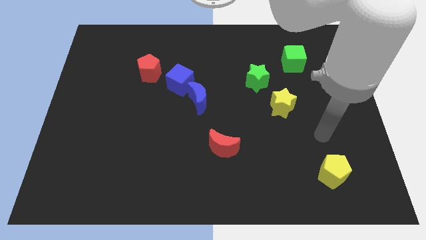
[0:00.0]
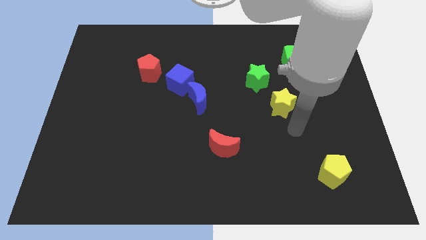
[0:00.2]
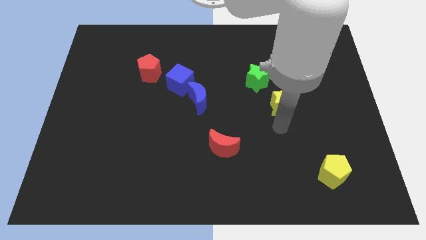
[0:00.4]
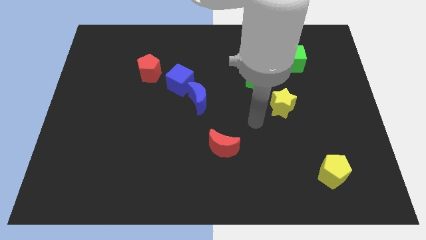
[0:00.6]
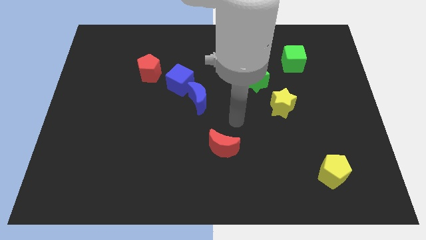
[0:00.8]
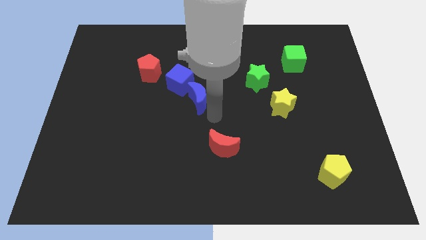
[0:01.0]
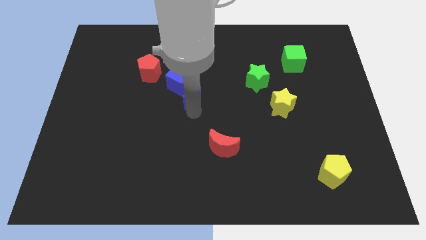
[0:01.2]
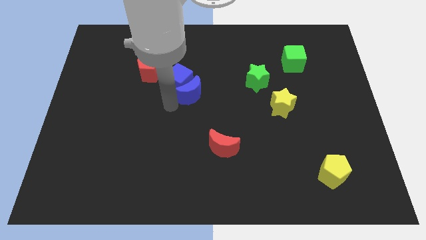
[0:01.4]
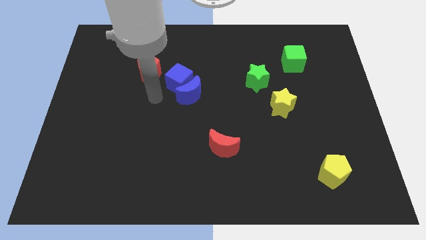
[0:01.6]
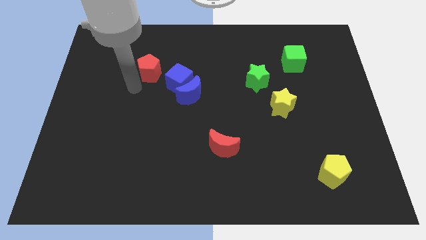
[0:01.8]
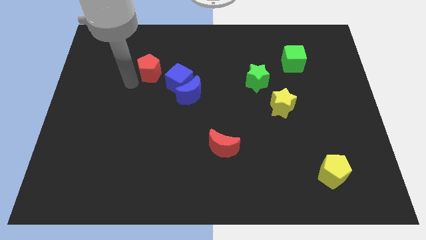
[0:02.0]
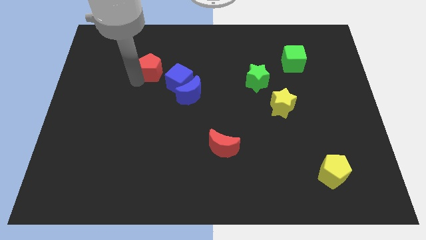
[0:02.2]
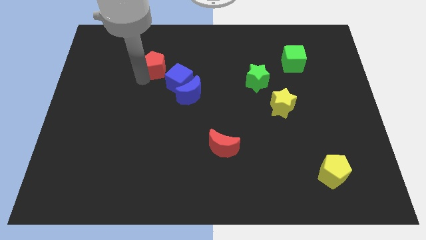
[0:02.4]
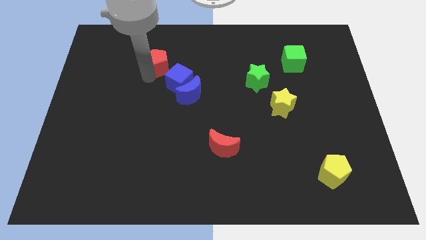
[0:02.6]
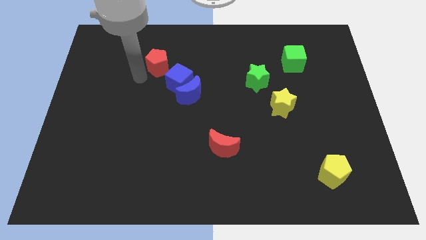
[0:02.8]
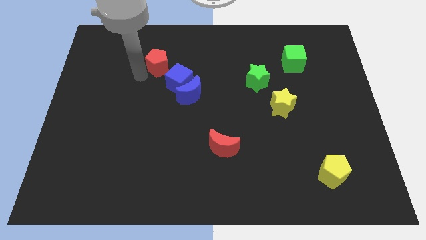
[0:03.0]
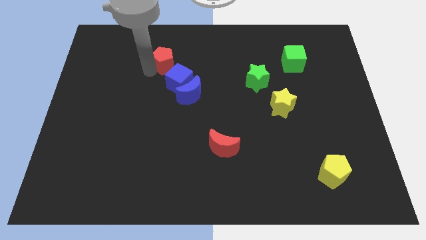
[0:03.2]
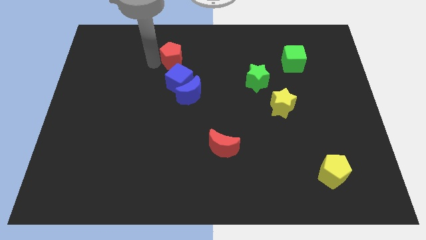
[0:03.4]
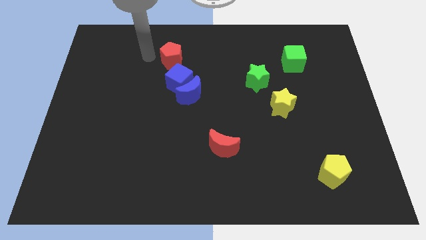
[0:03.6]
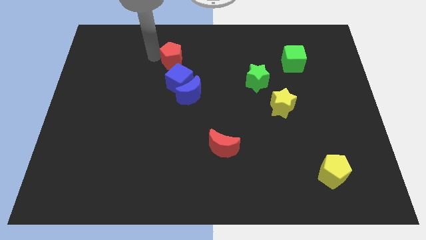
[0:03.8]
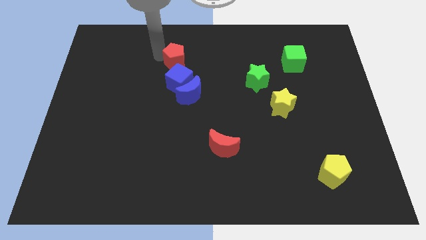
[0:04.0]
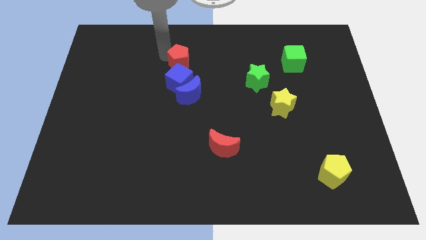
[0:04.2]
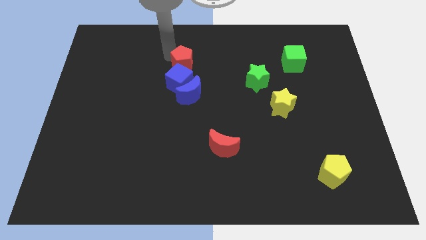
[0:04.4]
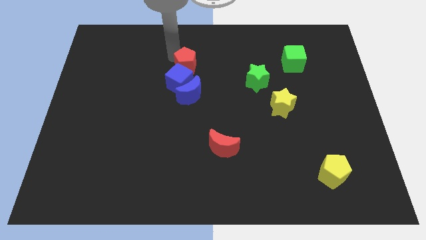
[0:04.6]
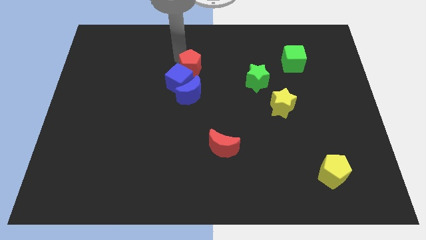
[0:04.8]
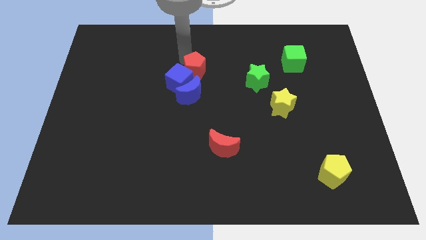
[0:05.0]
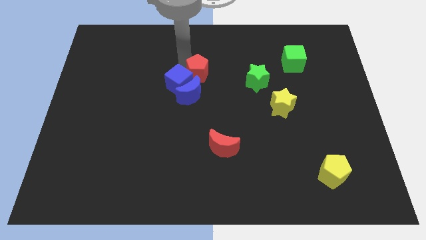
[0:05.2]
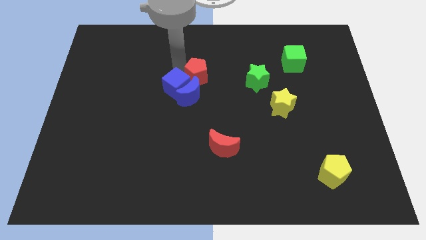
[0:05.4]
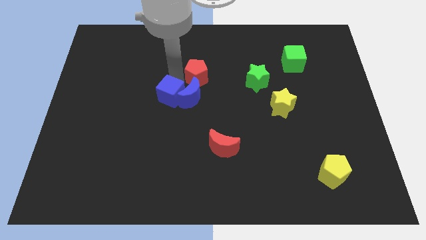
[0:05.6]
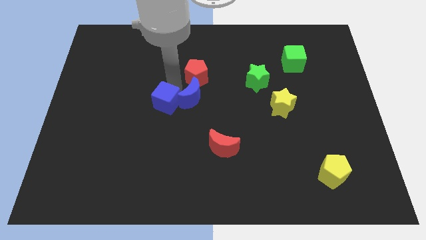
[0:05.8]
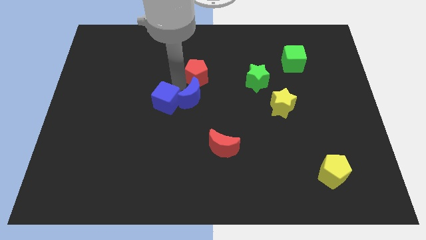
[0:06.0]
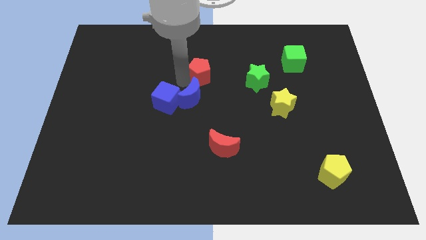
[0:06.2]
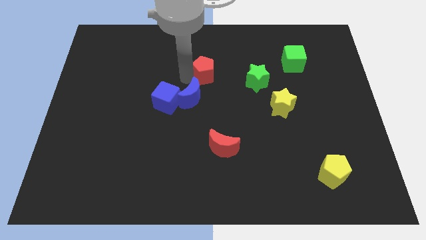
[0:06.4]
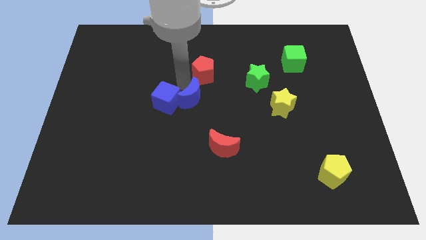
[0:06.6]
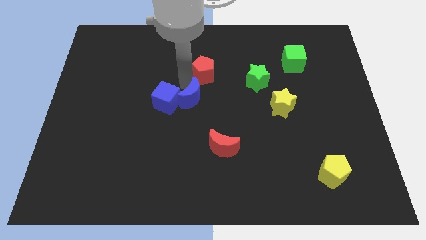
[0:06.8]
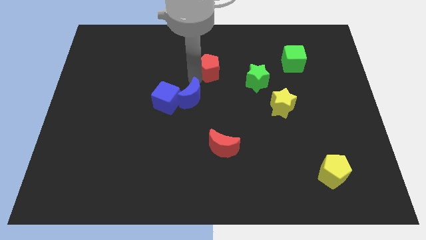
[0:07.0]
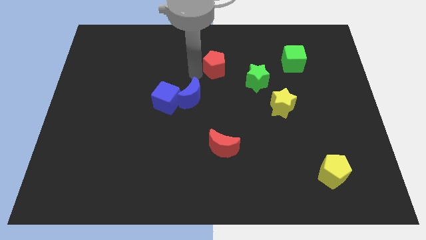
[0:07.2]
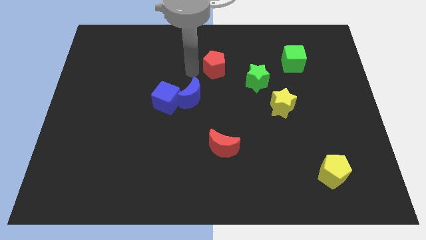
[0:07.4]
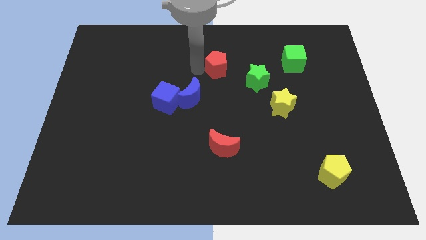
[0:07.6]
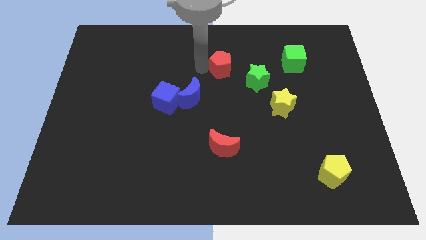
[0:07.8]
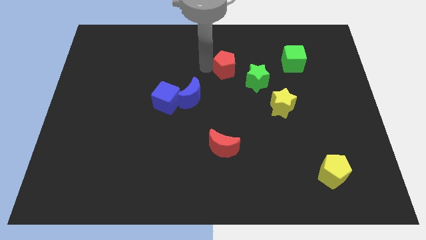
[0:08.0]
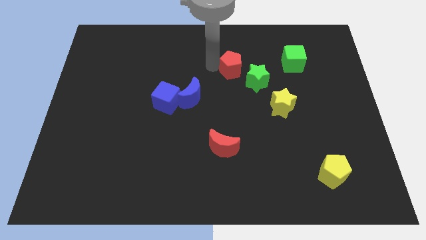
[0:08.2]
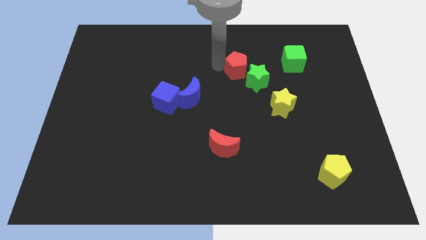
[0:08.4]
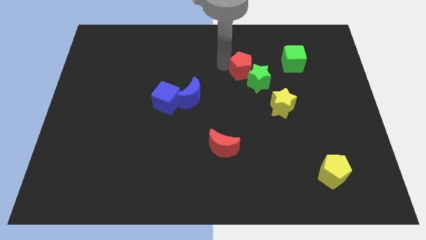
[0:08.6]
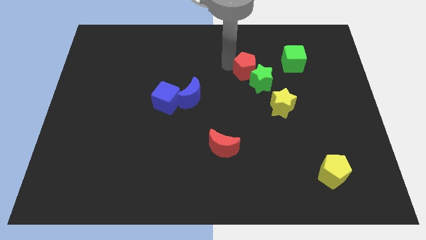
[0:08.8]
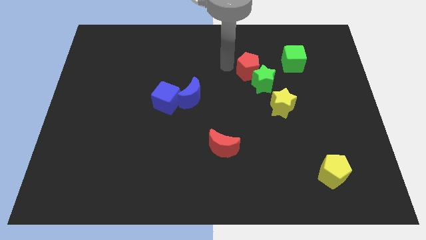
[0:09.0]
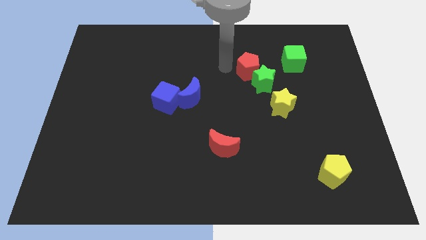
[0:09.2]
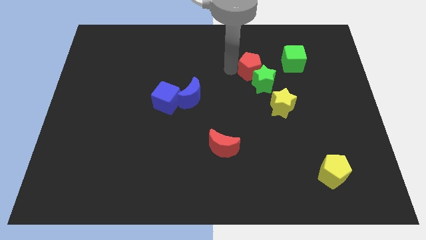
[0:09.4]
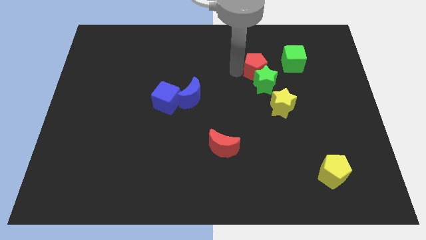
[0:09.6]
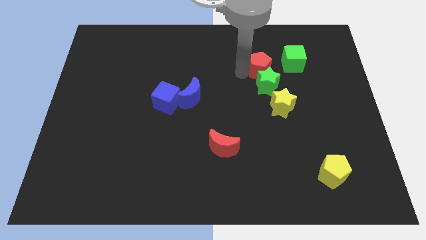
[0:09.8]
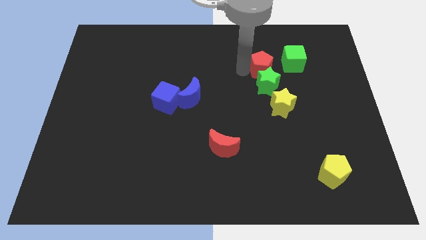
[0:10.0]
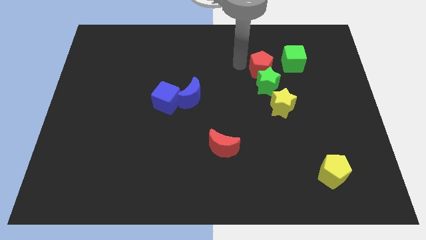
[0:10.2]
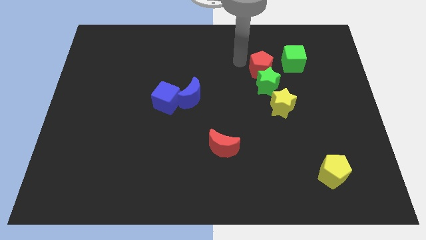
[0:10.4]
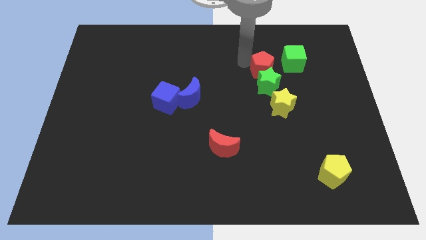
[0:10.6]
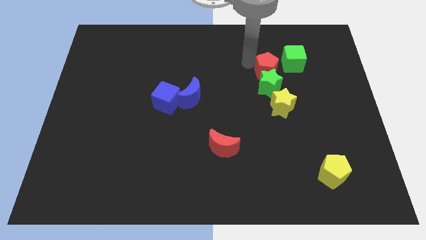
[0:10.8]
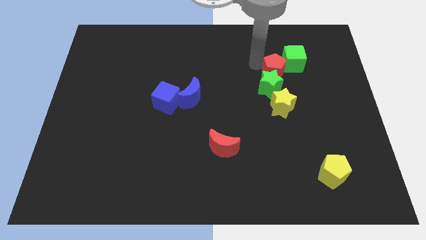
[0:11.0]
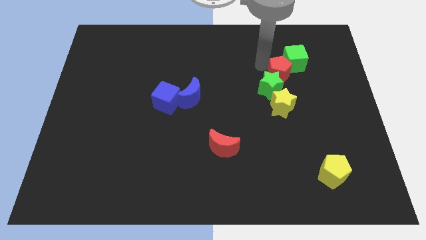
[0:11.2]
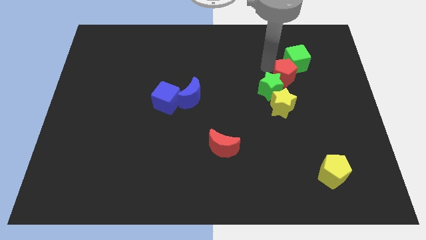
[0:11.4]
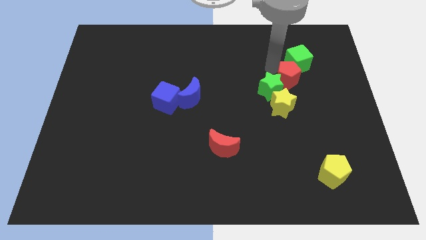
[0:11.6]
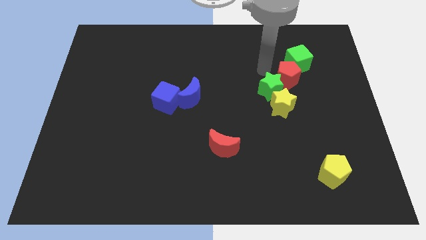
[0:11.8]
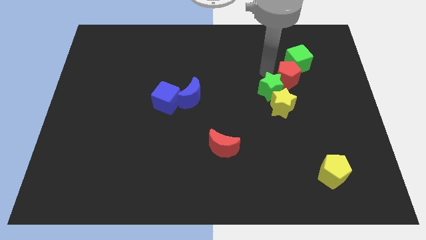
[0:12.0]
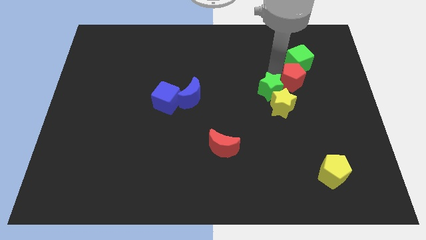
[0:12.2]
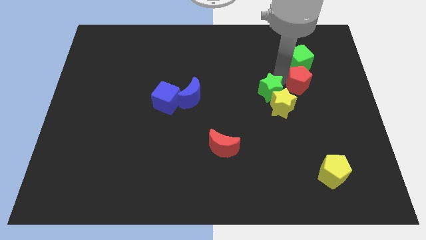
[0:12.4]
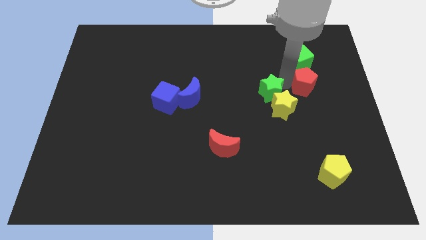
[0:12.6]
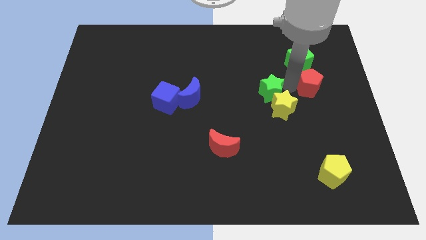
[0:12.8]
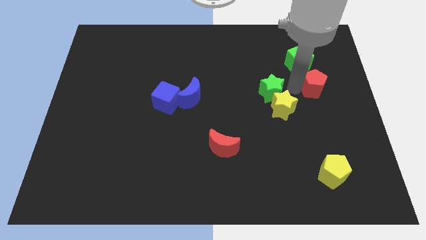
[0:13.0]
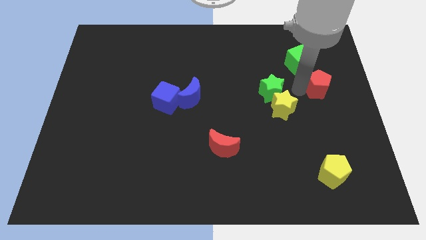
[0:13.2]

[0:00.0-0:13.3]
slide the red pentagon to the right side of the board
